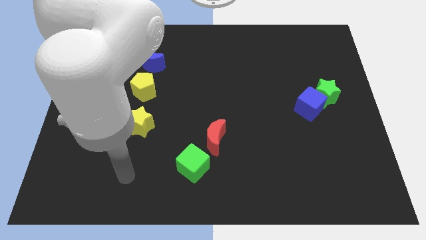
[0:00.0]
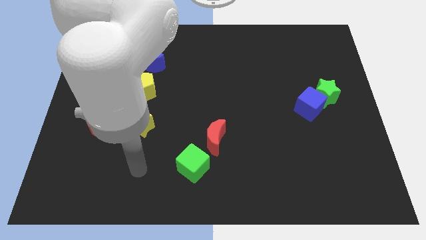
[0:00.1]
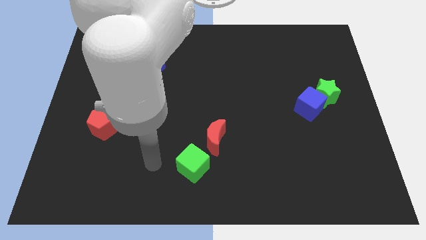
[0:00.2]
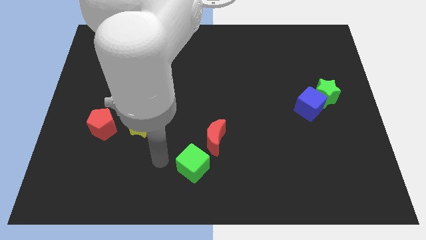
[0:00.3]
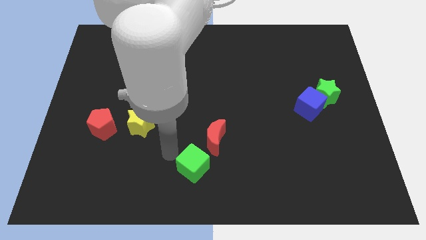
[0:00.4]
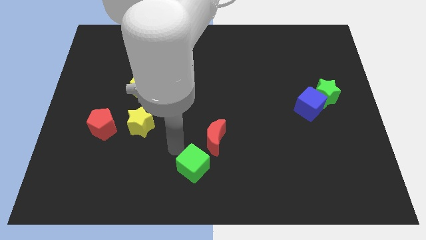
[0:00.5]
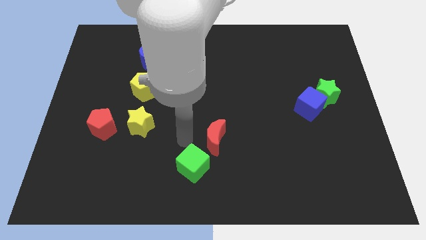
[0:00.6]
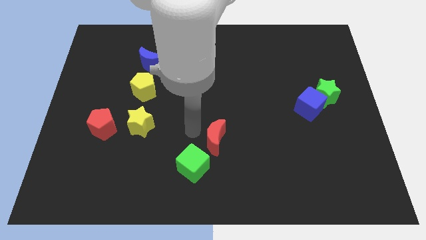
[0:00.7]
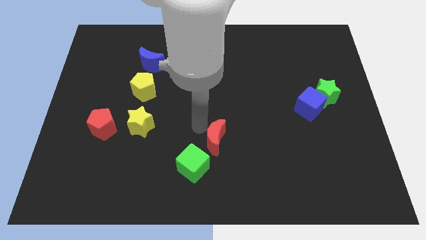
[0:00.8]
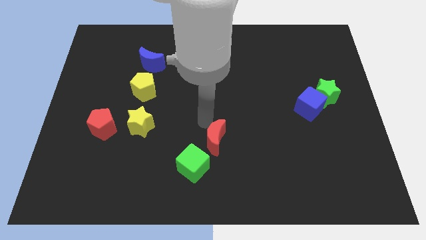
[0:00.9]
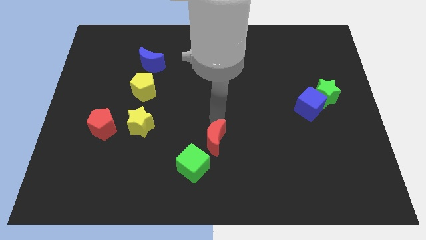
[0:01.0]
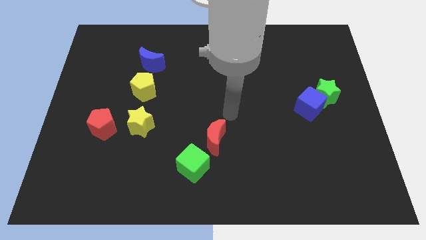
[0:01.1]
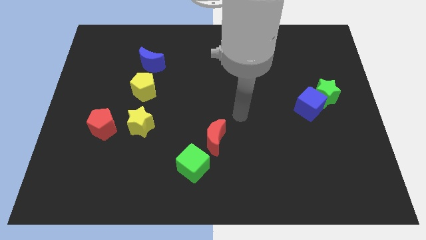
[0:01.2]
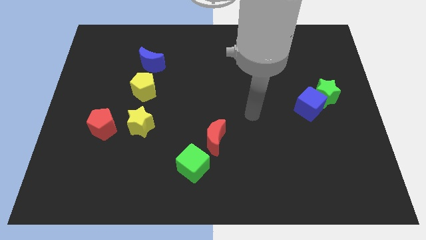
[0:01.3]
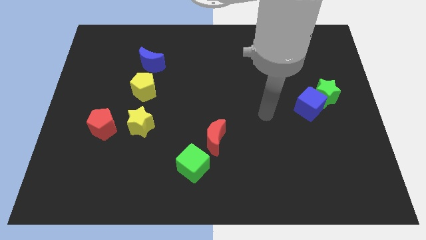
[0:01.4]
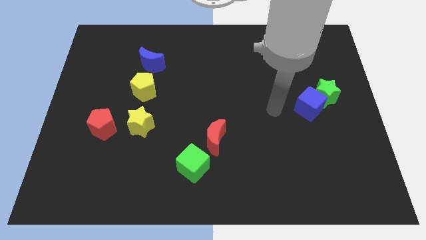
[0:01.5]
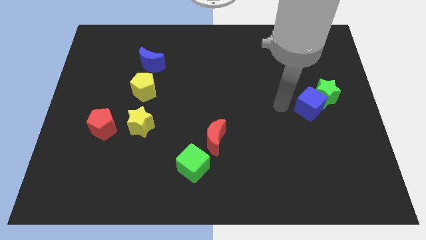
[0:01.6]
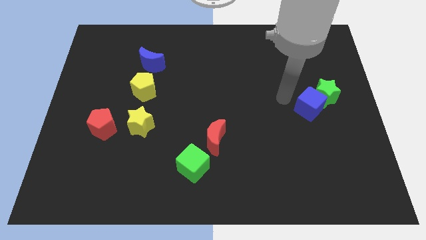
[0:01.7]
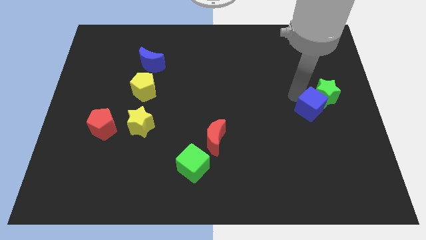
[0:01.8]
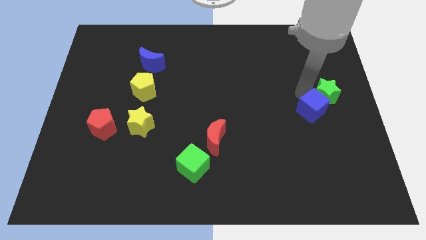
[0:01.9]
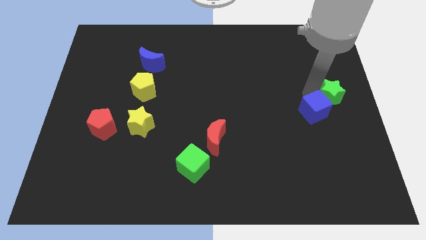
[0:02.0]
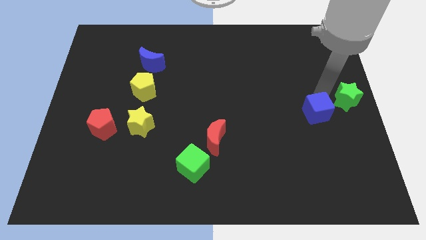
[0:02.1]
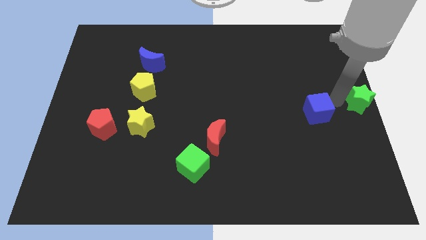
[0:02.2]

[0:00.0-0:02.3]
move the blue cube away from the green star

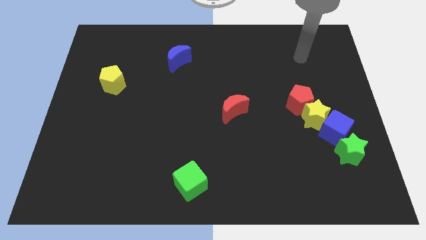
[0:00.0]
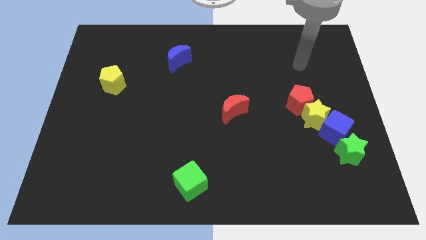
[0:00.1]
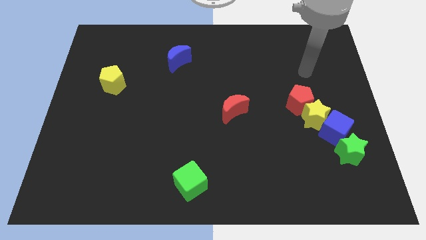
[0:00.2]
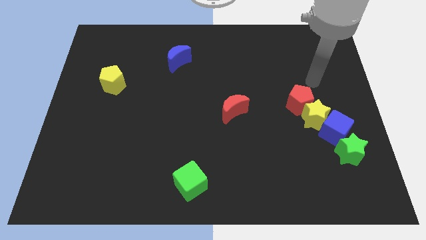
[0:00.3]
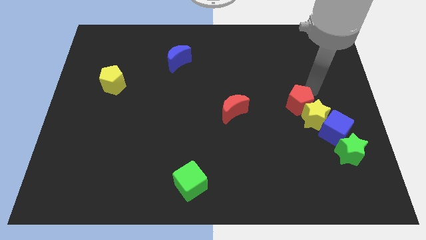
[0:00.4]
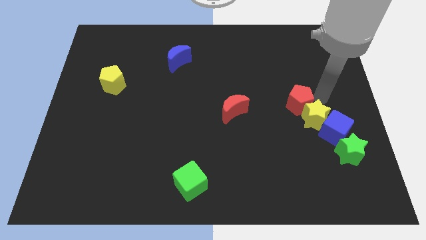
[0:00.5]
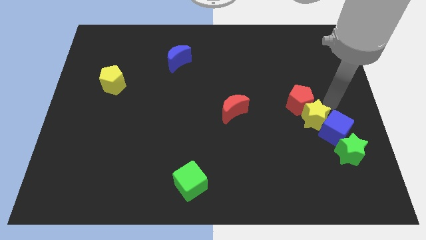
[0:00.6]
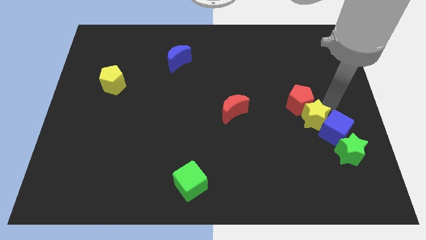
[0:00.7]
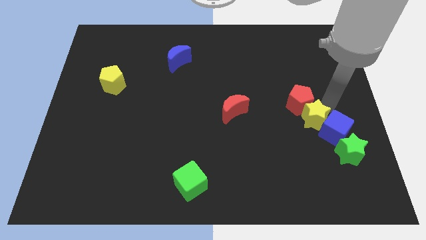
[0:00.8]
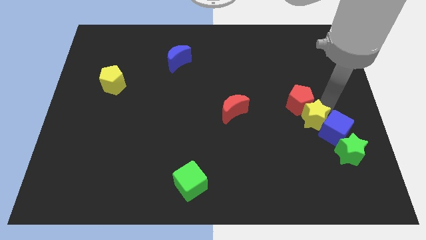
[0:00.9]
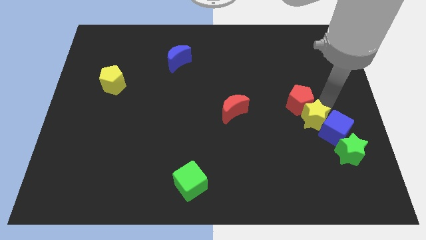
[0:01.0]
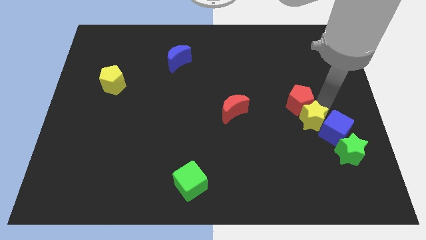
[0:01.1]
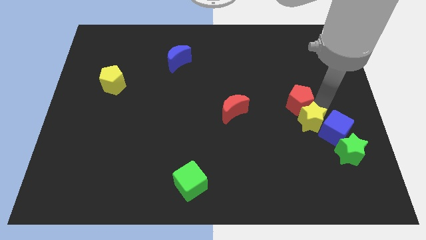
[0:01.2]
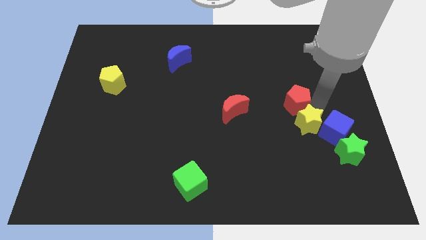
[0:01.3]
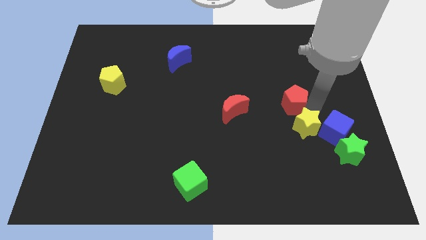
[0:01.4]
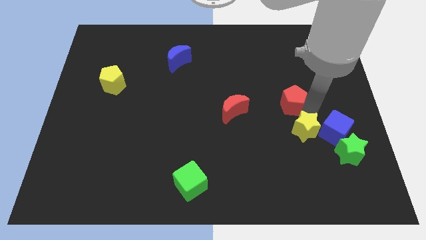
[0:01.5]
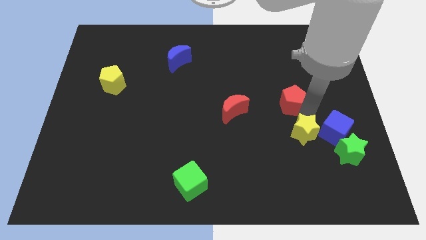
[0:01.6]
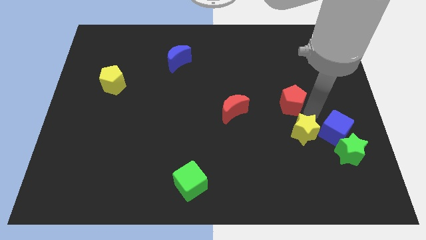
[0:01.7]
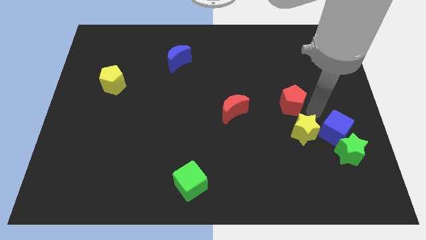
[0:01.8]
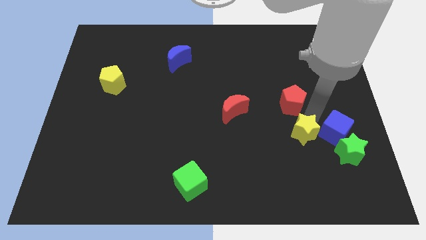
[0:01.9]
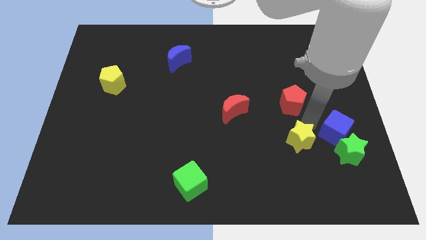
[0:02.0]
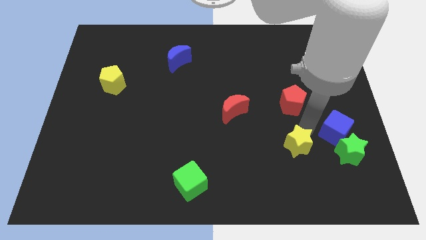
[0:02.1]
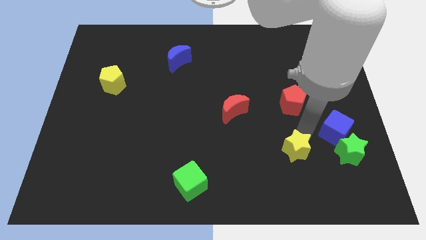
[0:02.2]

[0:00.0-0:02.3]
separate the yellow star from the blue cube and red pentagon

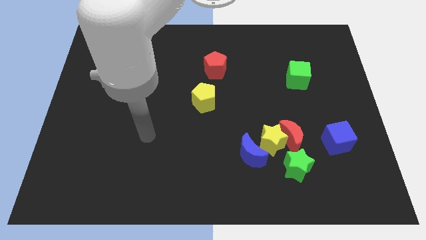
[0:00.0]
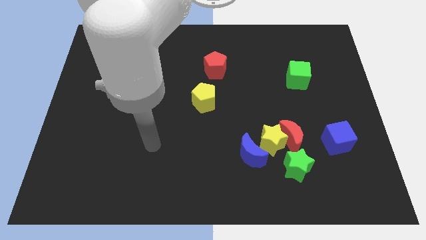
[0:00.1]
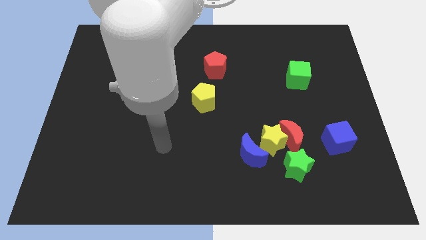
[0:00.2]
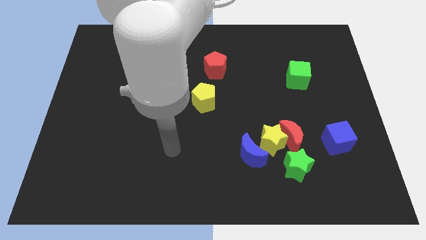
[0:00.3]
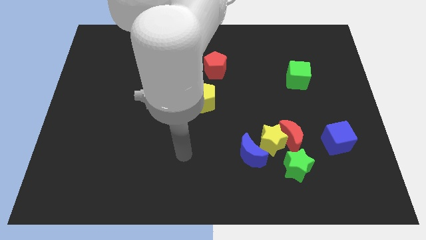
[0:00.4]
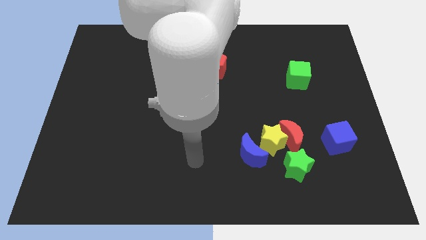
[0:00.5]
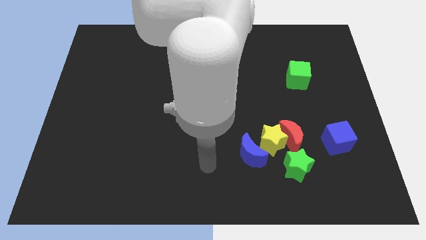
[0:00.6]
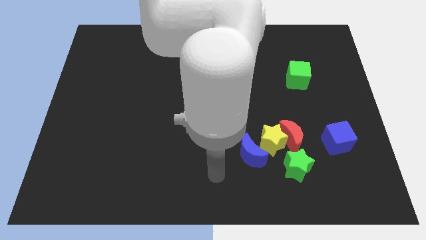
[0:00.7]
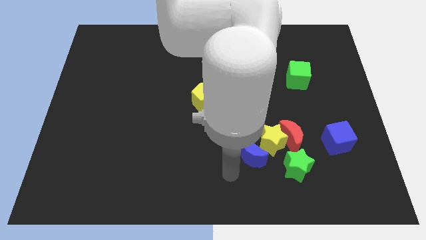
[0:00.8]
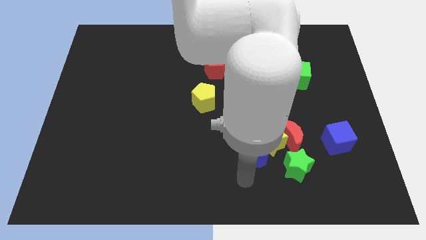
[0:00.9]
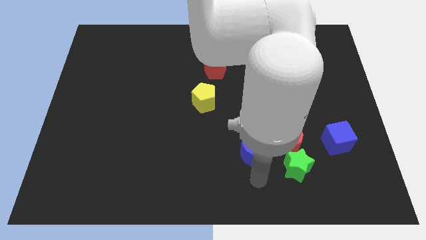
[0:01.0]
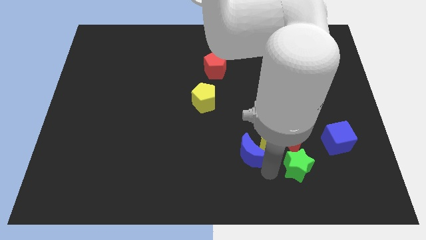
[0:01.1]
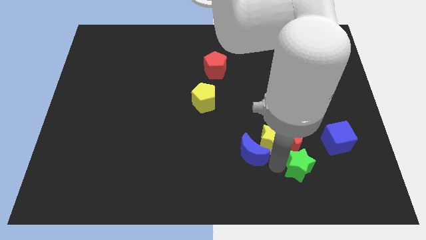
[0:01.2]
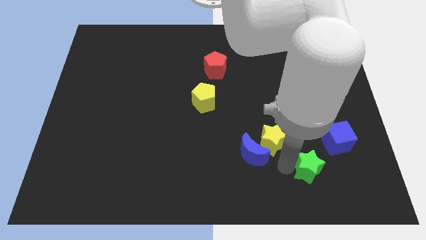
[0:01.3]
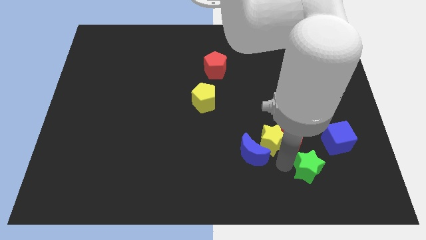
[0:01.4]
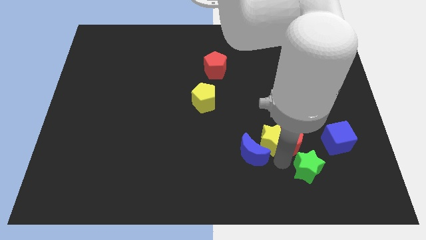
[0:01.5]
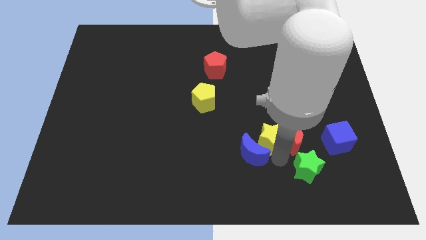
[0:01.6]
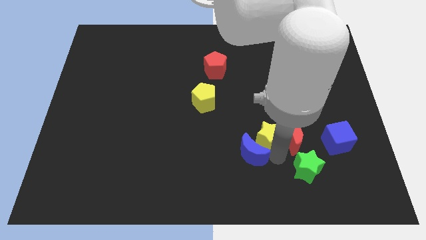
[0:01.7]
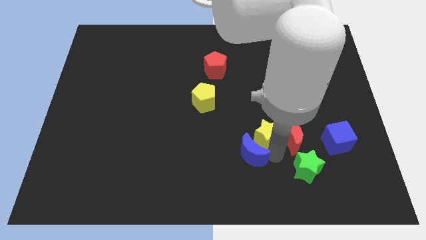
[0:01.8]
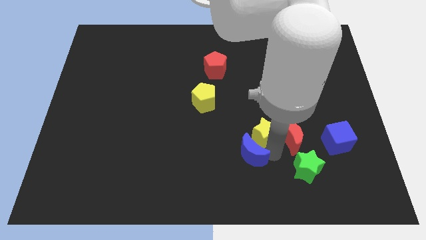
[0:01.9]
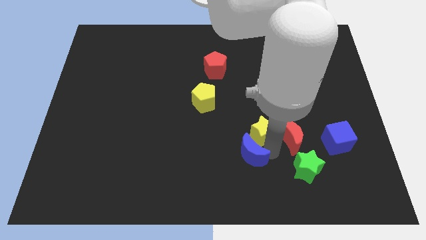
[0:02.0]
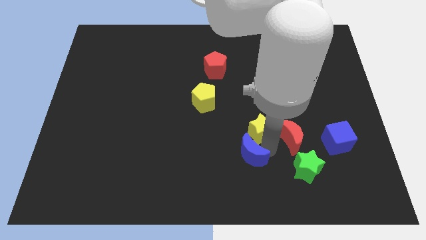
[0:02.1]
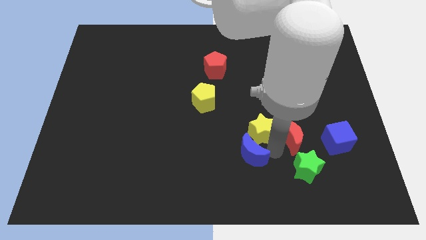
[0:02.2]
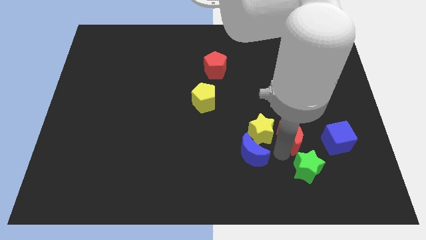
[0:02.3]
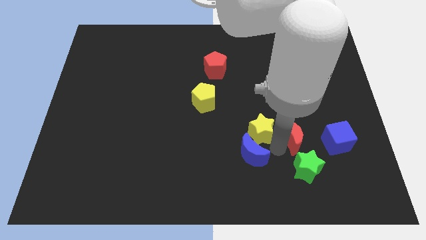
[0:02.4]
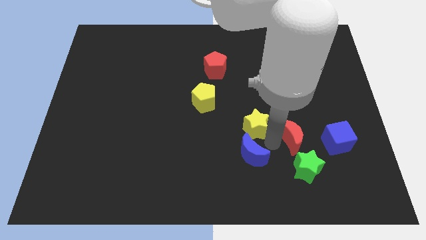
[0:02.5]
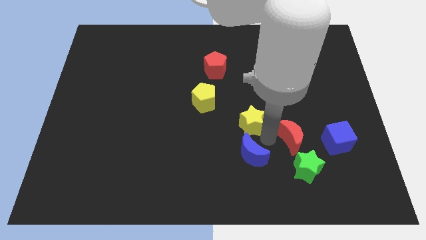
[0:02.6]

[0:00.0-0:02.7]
separate the yellow star from the red moon, blue moon, and green star

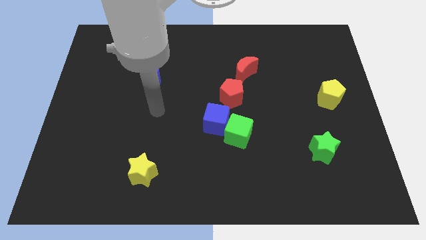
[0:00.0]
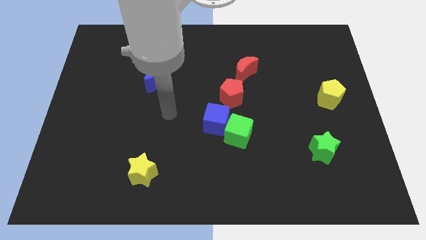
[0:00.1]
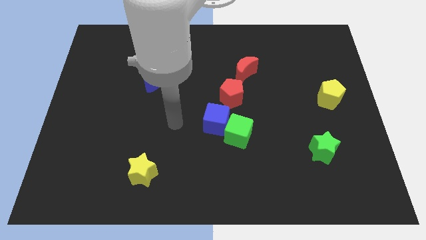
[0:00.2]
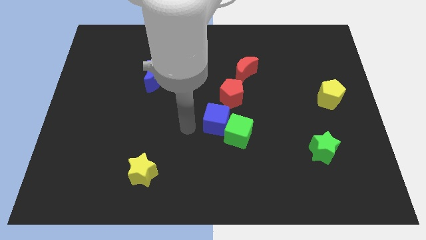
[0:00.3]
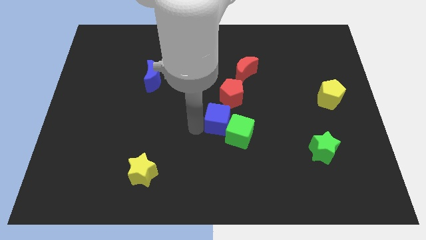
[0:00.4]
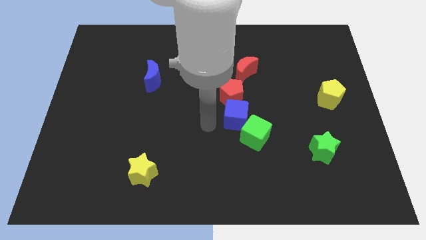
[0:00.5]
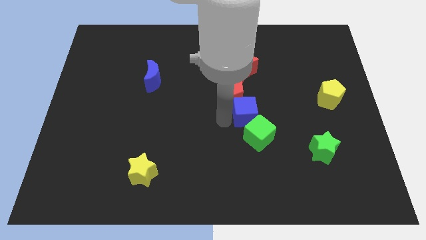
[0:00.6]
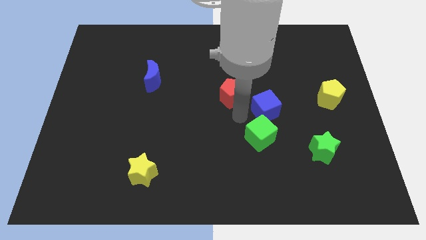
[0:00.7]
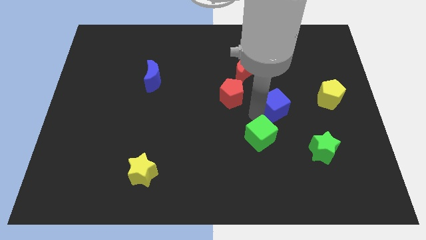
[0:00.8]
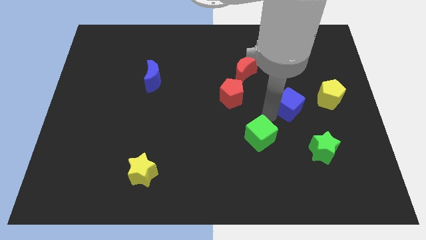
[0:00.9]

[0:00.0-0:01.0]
separate the green cube from the blue cube

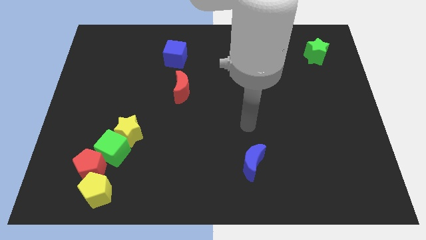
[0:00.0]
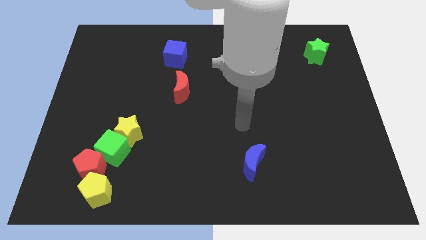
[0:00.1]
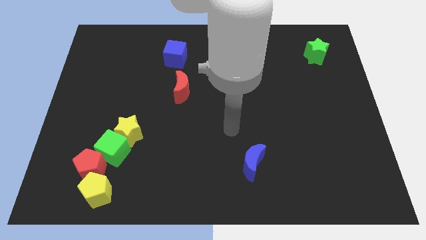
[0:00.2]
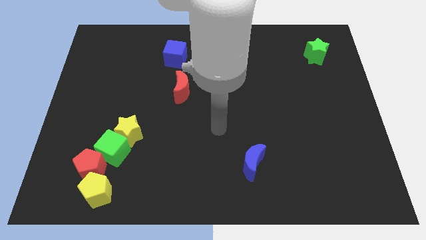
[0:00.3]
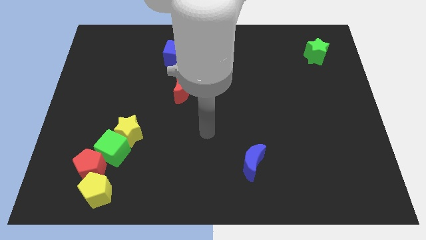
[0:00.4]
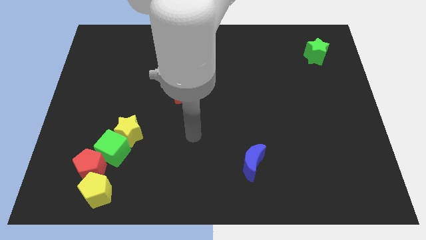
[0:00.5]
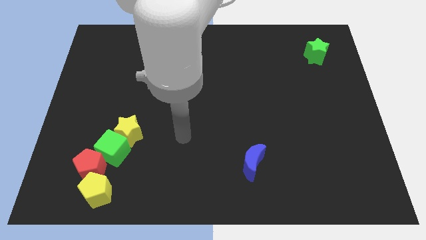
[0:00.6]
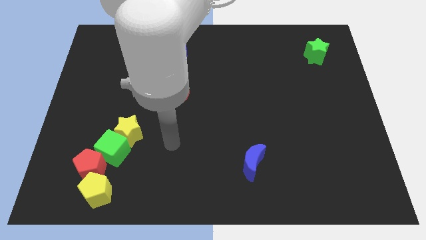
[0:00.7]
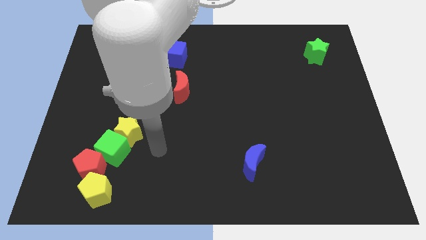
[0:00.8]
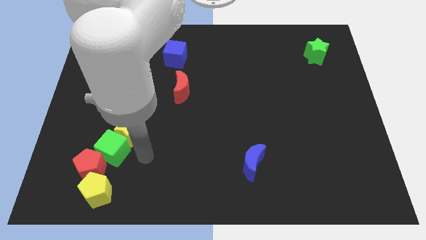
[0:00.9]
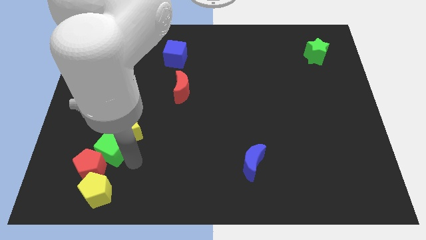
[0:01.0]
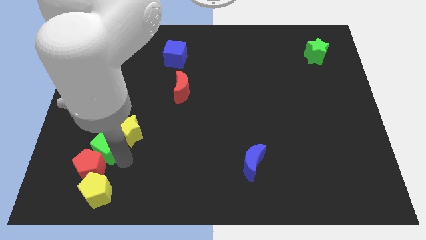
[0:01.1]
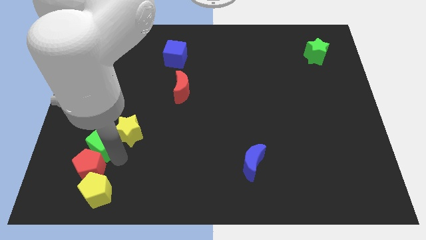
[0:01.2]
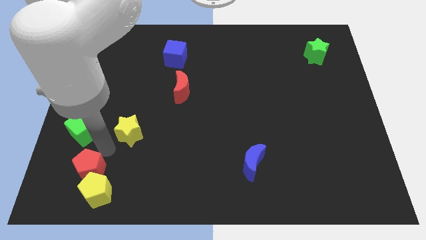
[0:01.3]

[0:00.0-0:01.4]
move the yellow star away from the green cube
